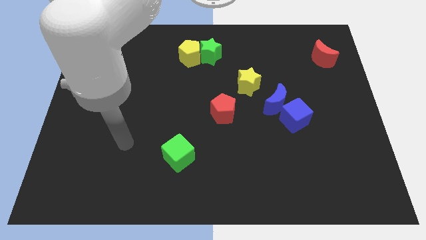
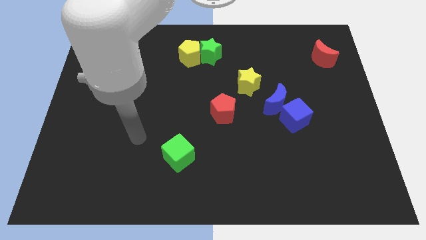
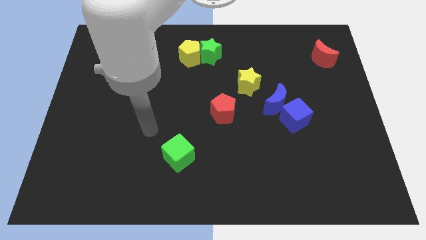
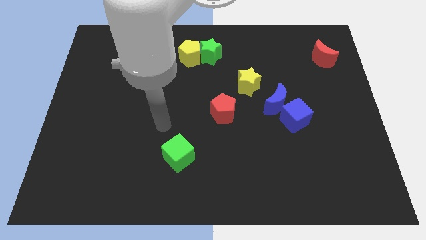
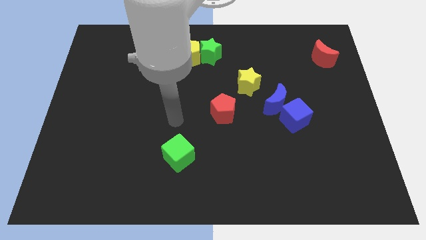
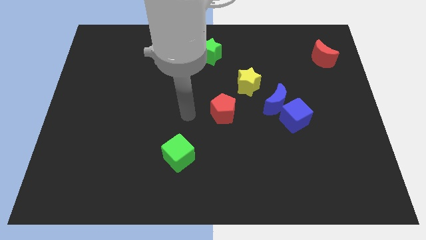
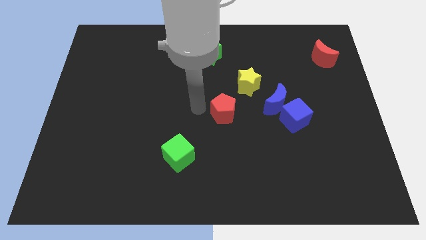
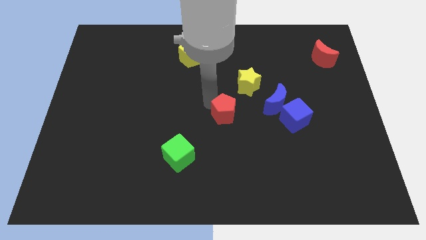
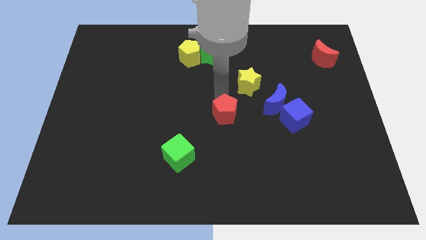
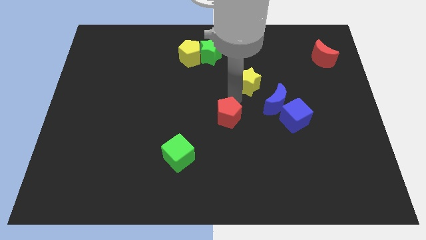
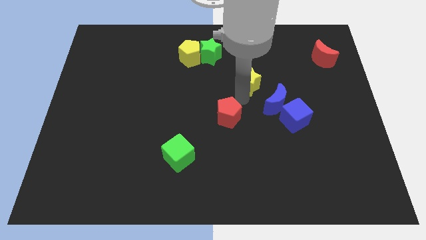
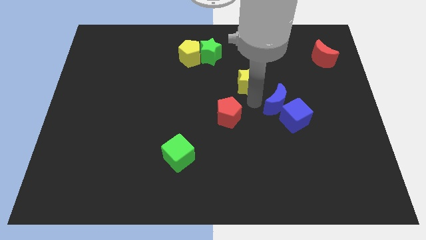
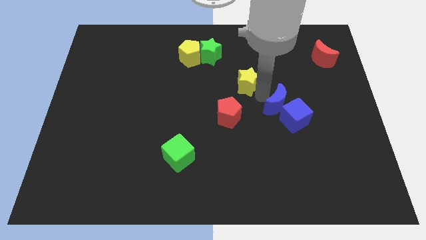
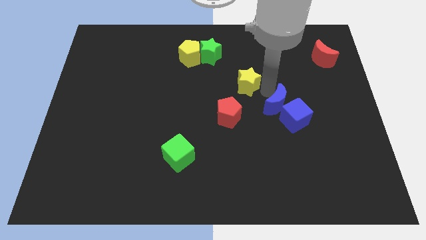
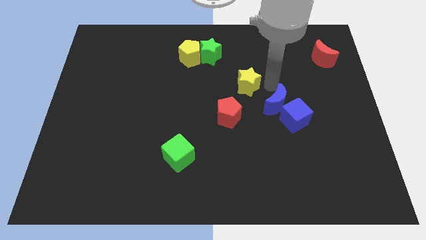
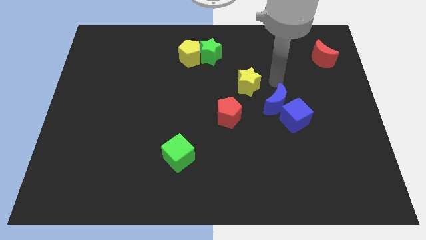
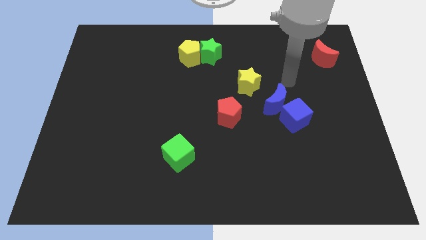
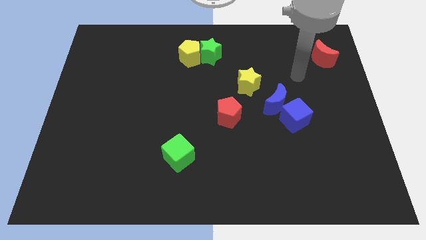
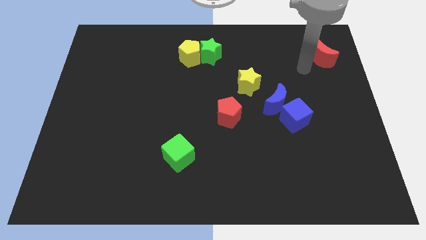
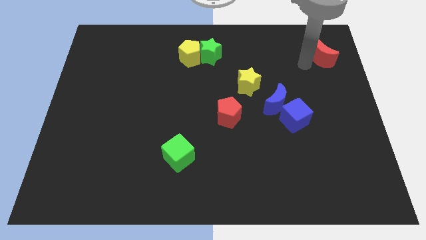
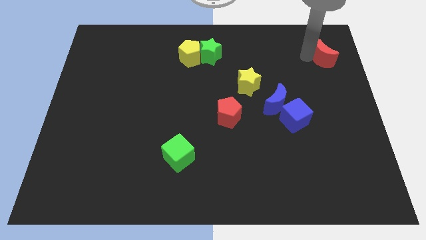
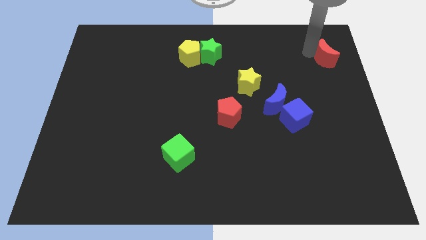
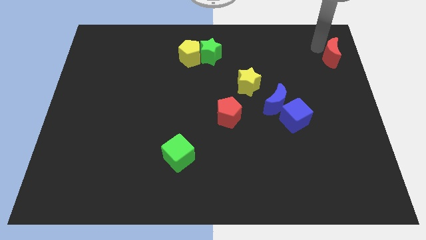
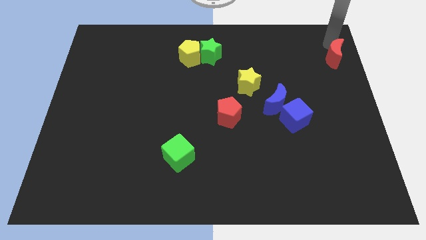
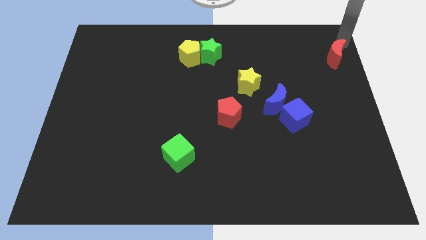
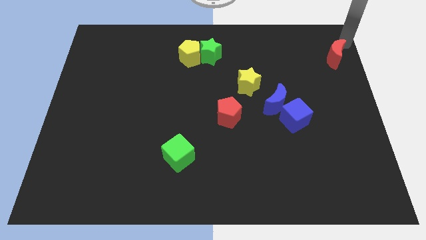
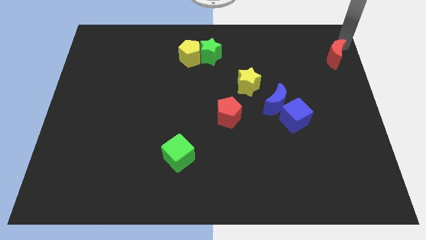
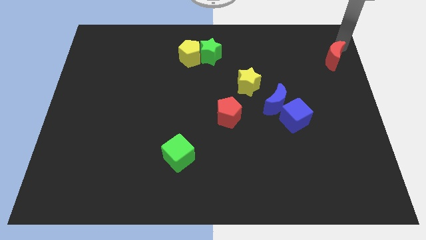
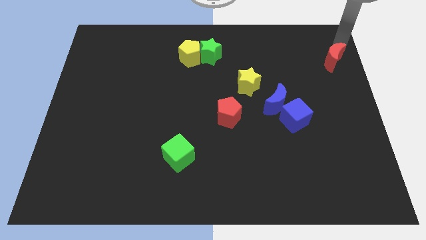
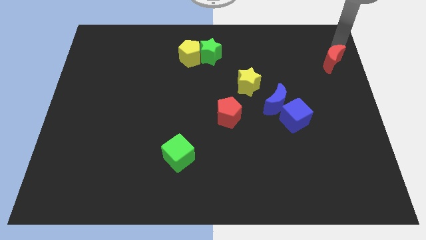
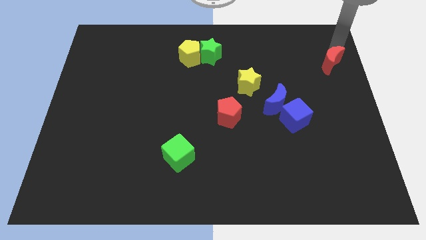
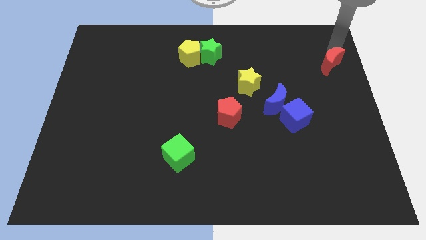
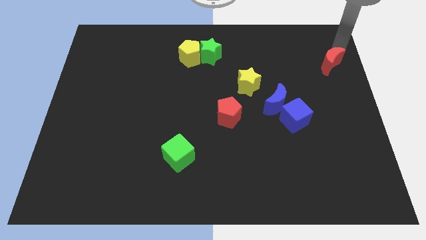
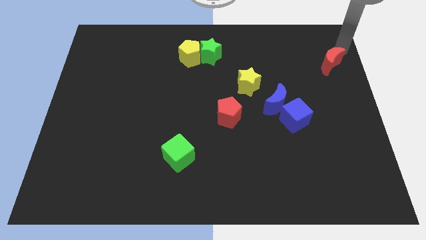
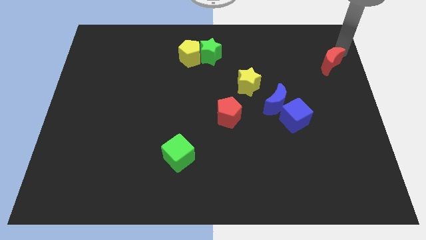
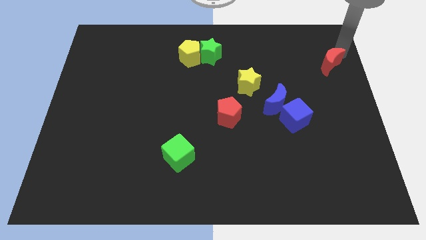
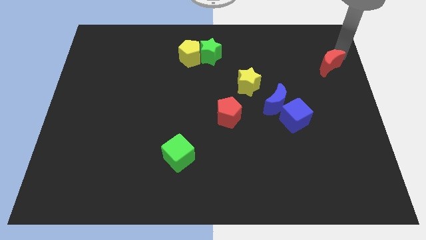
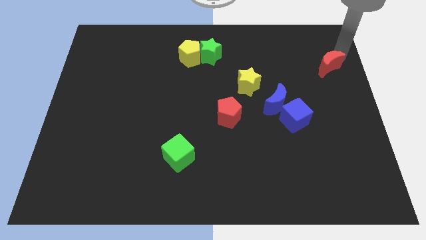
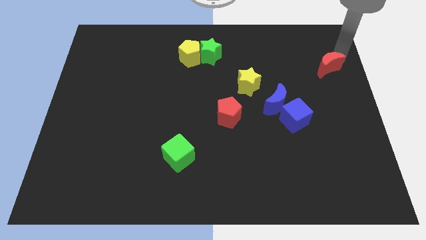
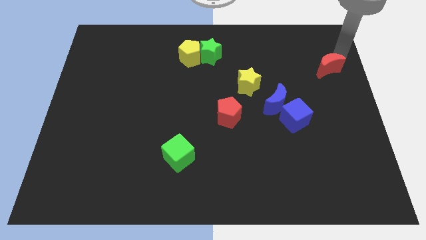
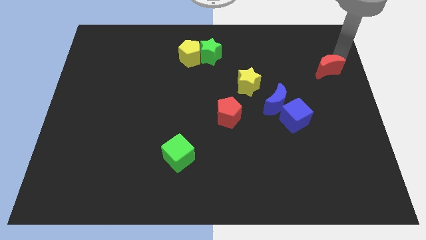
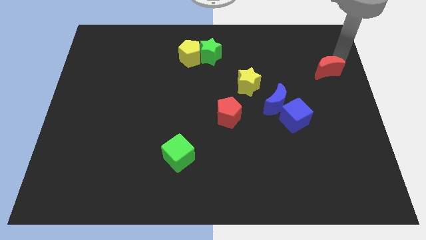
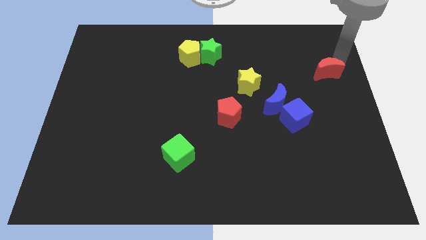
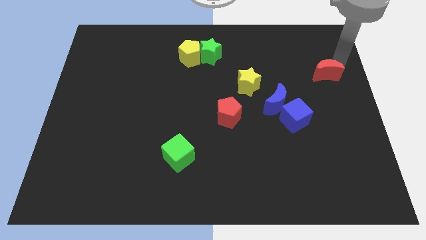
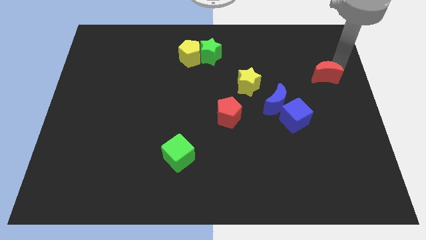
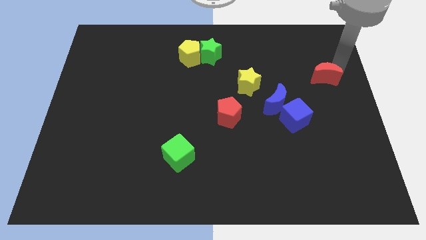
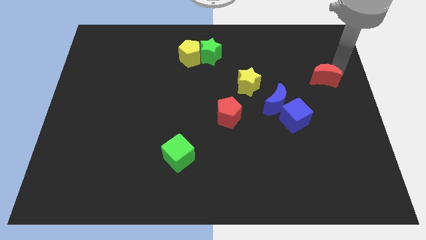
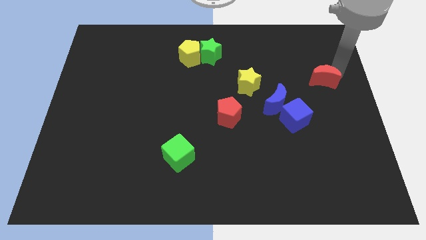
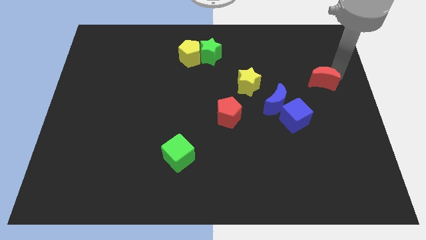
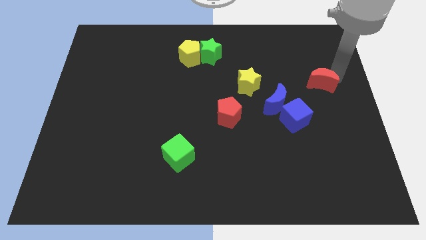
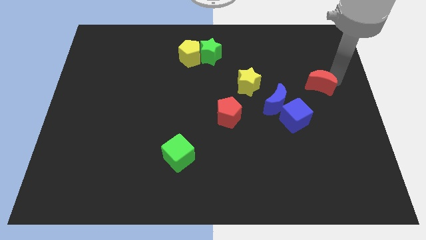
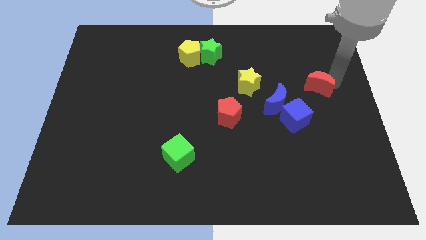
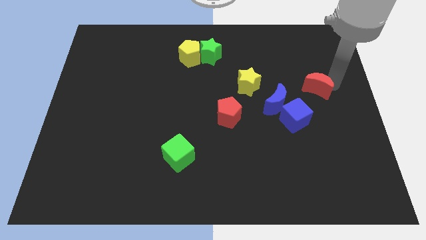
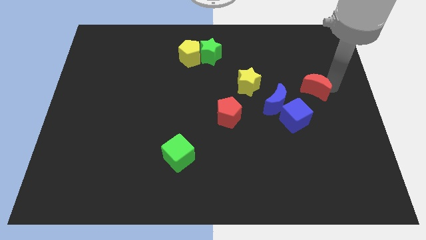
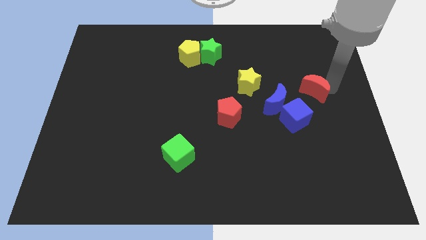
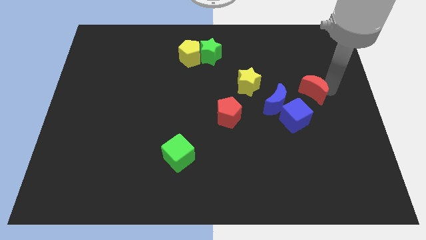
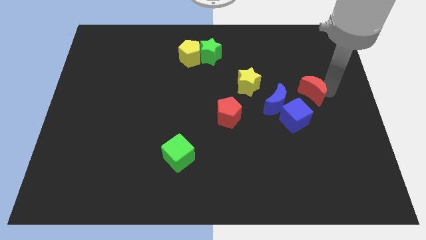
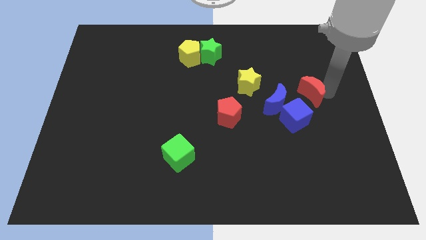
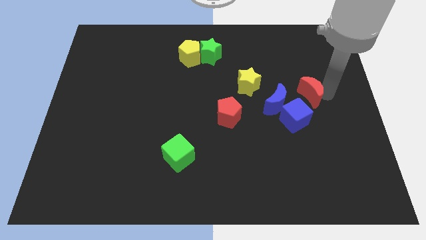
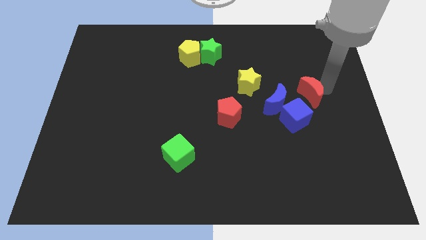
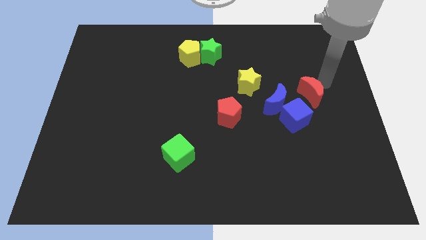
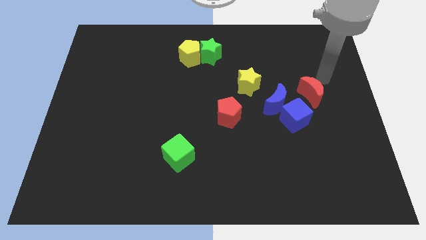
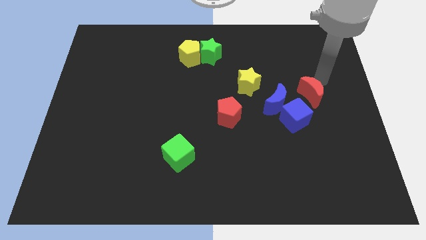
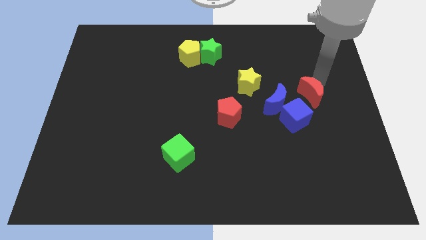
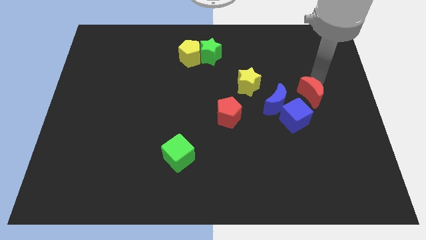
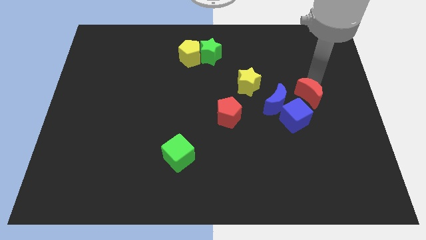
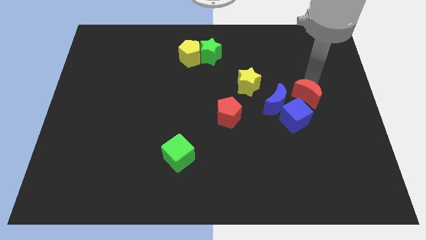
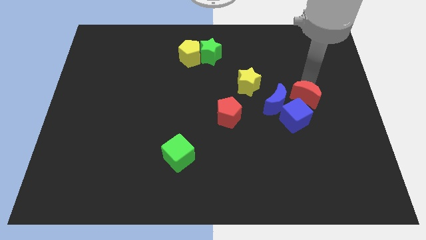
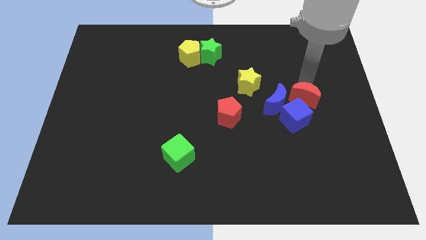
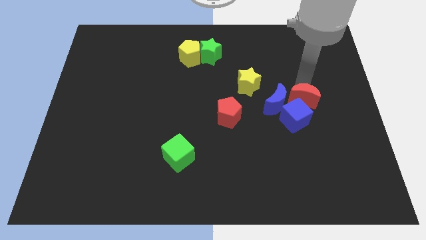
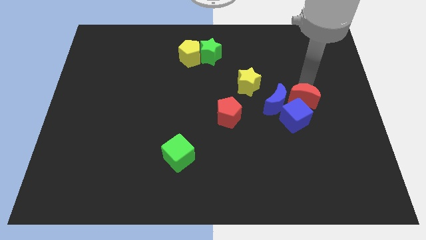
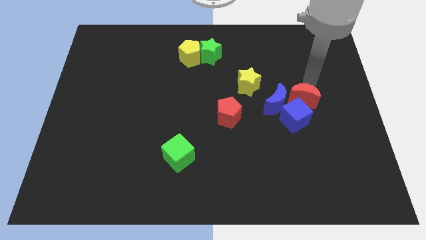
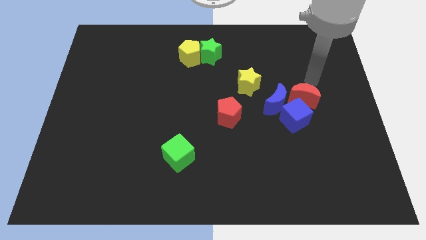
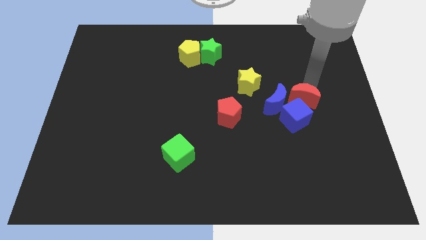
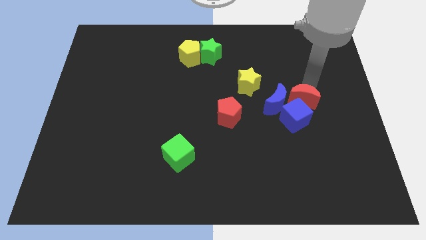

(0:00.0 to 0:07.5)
put the red moon next to the blue cube
